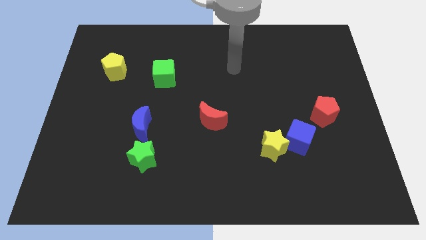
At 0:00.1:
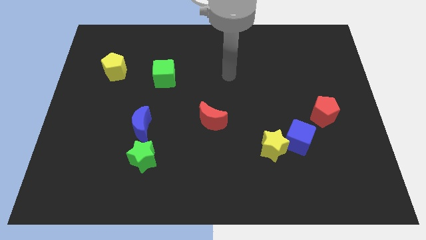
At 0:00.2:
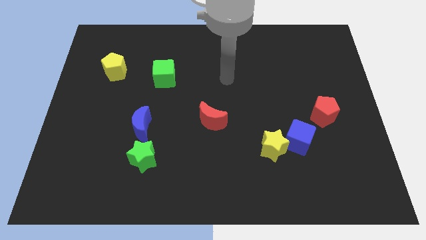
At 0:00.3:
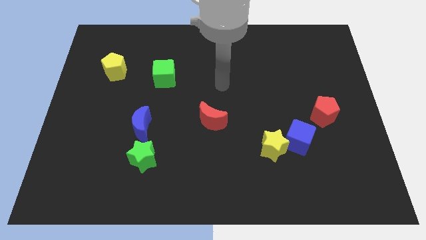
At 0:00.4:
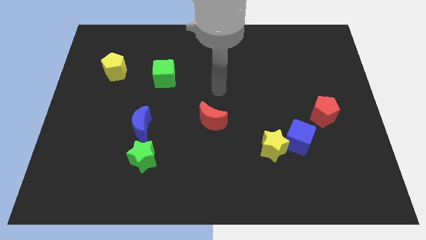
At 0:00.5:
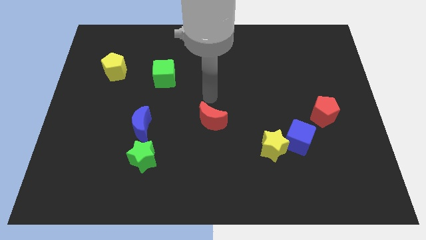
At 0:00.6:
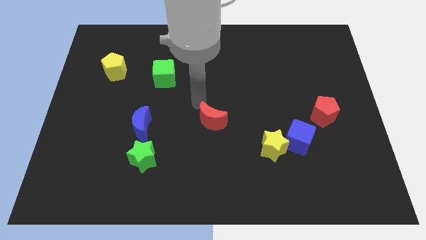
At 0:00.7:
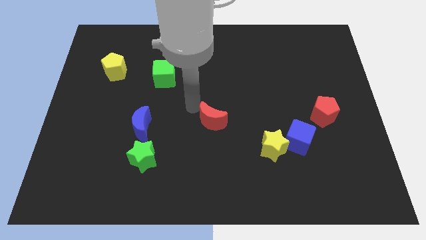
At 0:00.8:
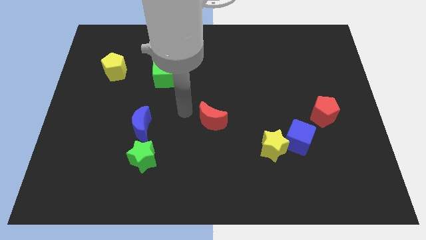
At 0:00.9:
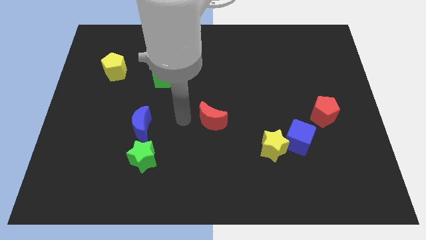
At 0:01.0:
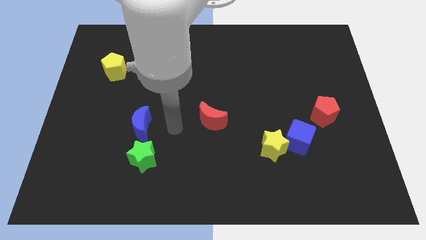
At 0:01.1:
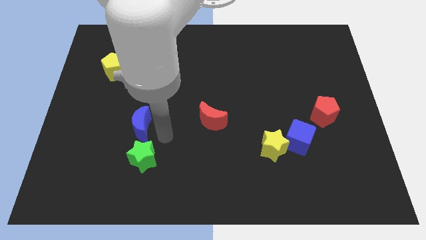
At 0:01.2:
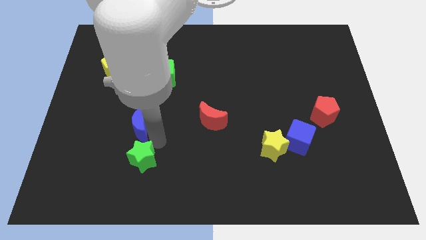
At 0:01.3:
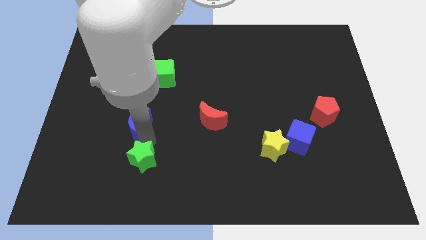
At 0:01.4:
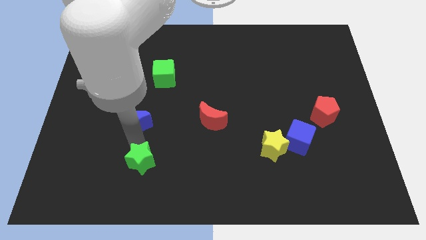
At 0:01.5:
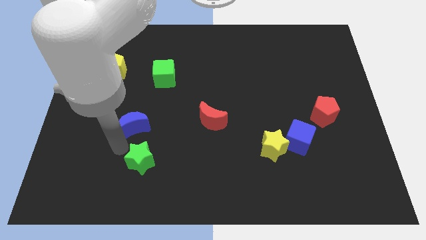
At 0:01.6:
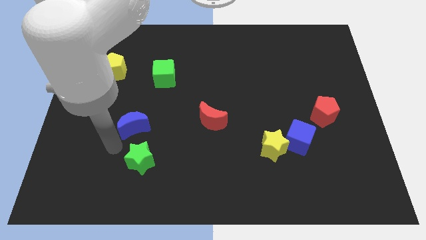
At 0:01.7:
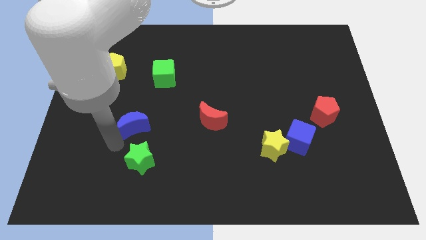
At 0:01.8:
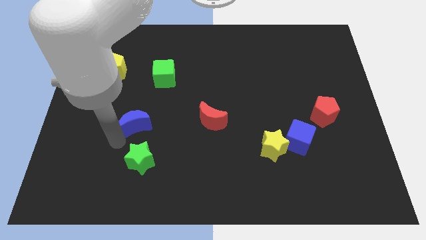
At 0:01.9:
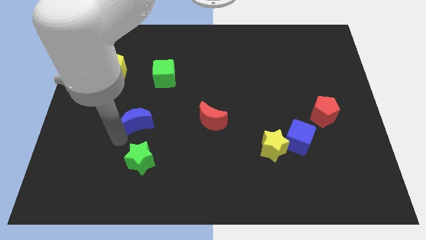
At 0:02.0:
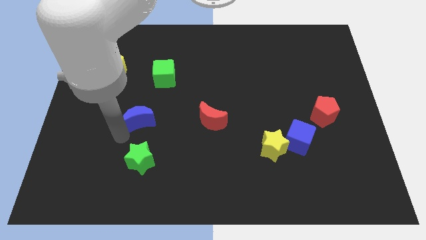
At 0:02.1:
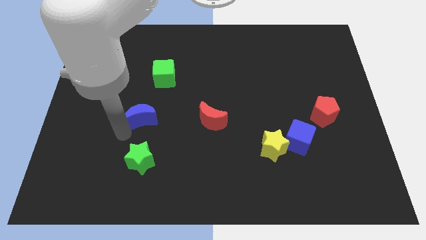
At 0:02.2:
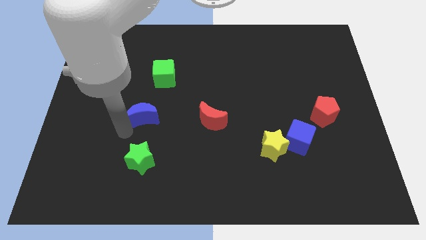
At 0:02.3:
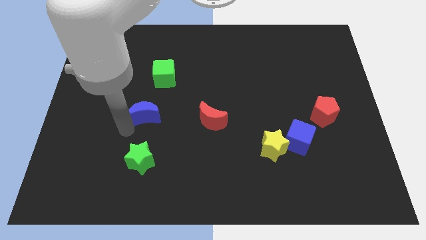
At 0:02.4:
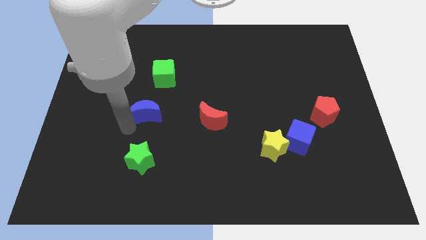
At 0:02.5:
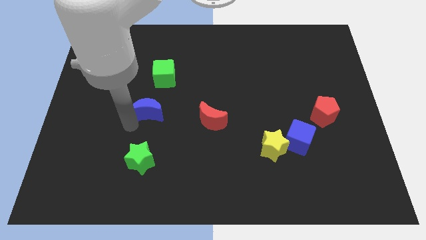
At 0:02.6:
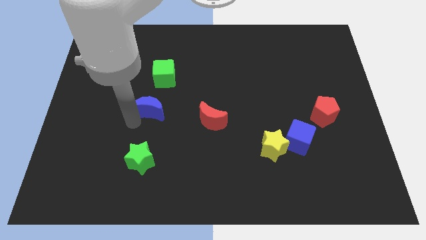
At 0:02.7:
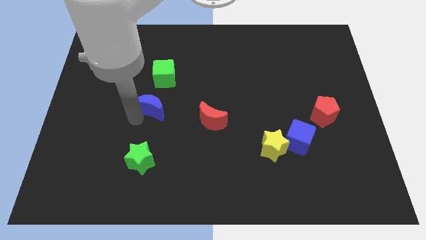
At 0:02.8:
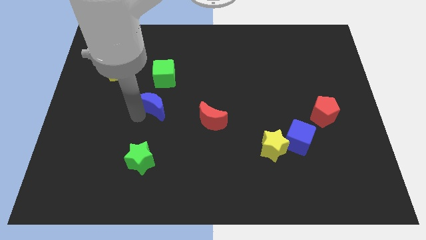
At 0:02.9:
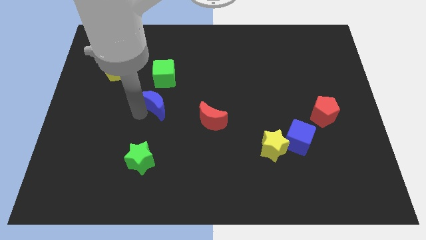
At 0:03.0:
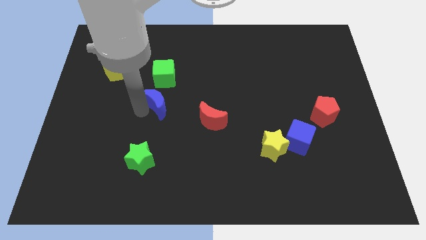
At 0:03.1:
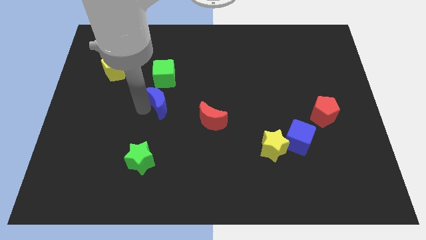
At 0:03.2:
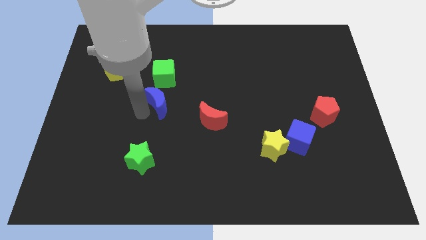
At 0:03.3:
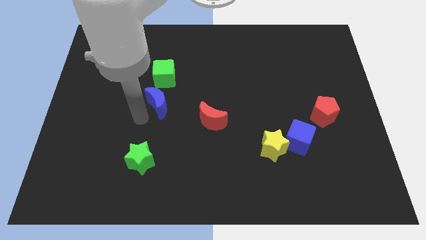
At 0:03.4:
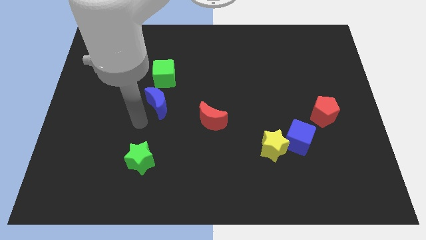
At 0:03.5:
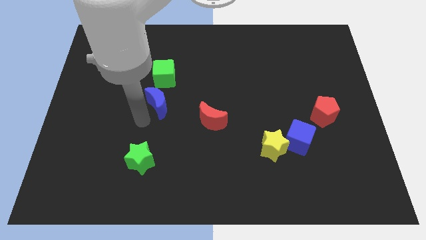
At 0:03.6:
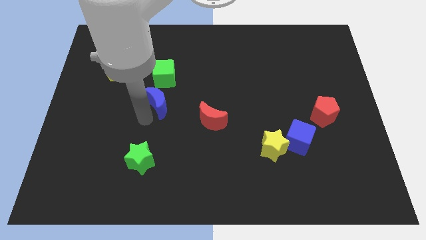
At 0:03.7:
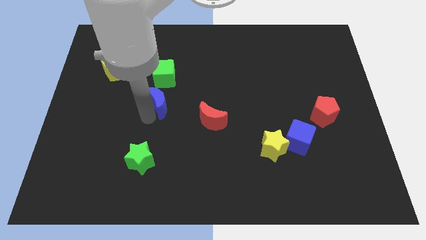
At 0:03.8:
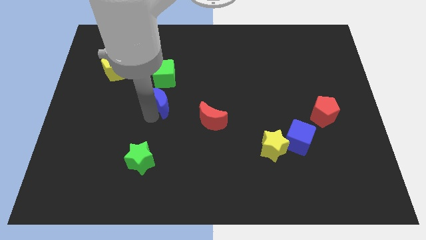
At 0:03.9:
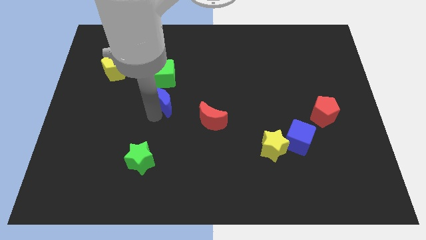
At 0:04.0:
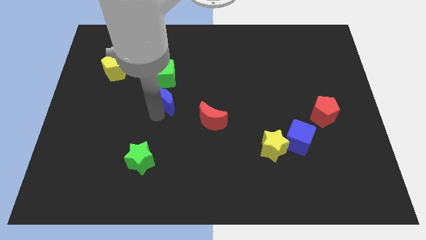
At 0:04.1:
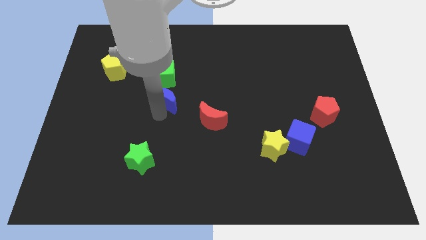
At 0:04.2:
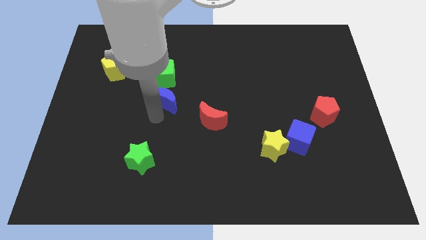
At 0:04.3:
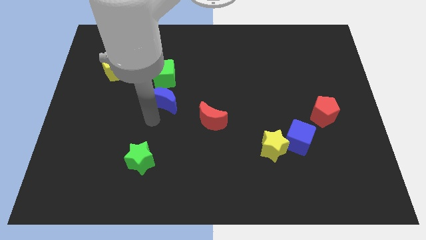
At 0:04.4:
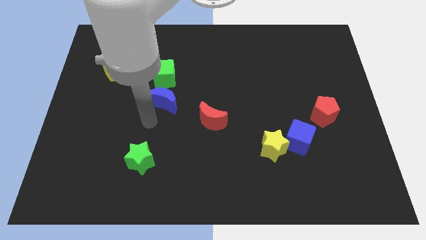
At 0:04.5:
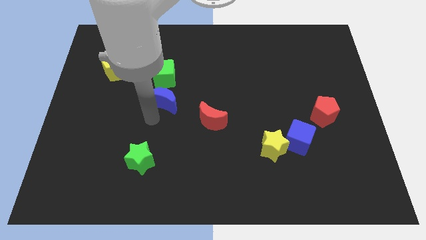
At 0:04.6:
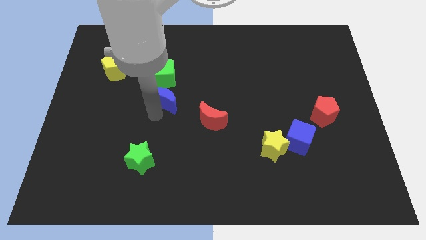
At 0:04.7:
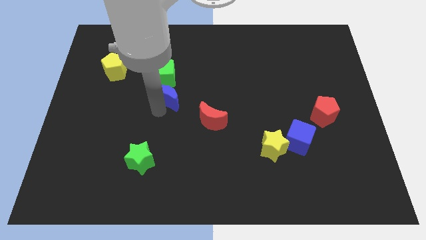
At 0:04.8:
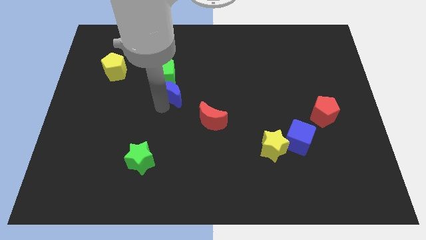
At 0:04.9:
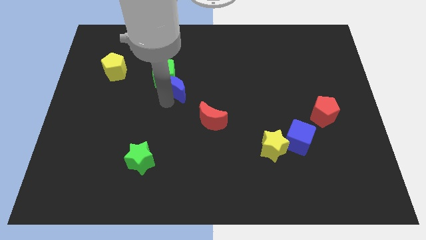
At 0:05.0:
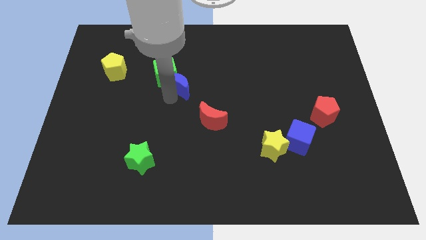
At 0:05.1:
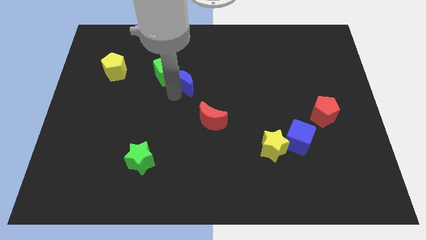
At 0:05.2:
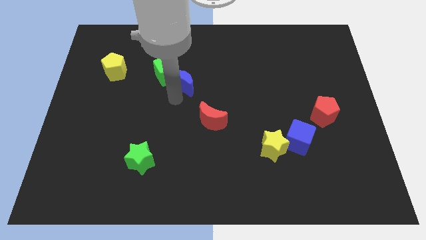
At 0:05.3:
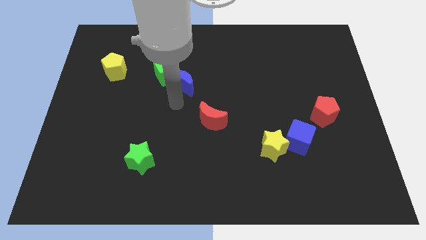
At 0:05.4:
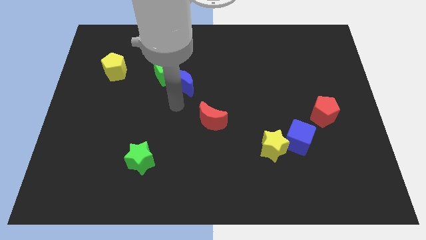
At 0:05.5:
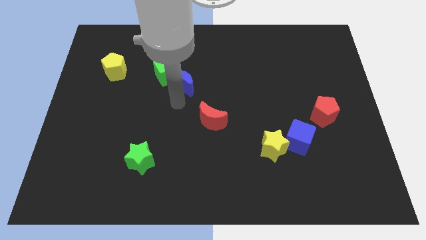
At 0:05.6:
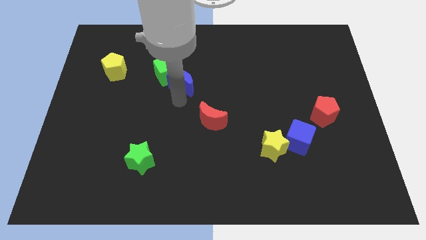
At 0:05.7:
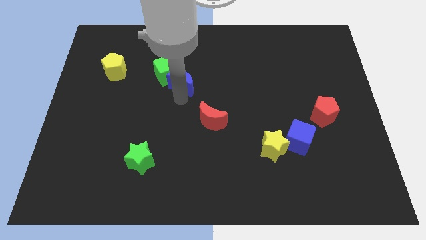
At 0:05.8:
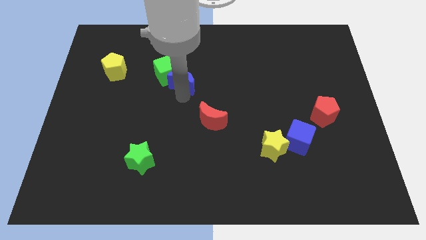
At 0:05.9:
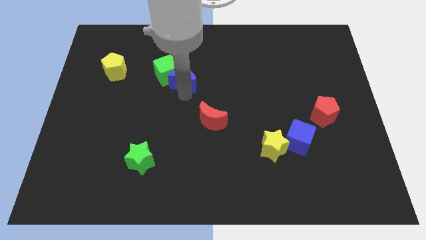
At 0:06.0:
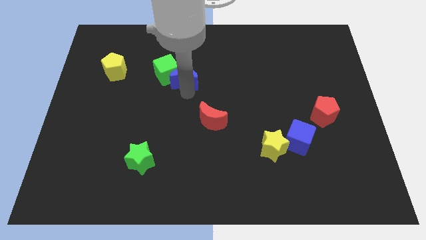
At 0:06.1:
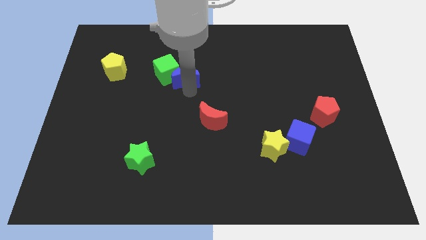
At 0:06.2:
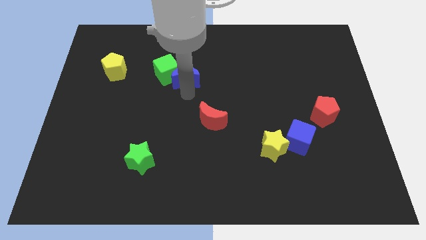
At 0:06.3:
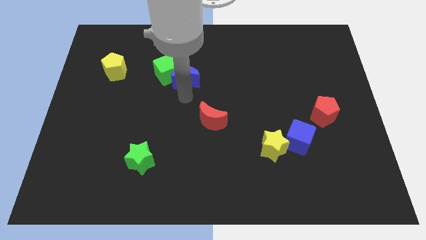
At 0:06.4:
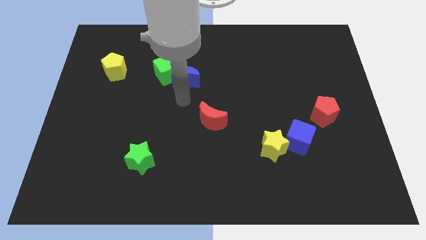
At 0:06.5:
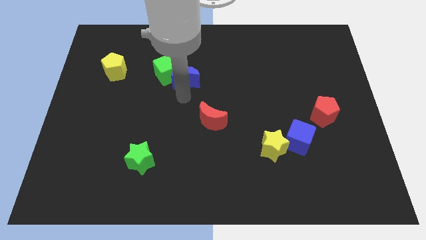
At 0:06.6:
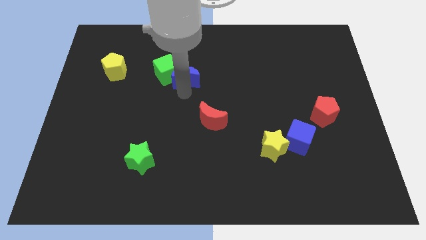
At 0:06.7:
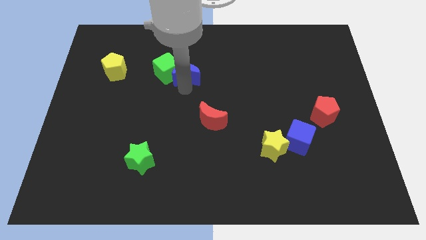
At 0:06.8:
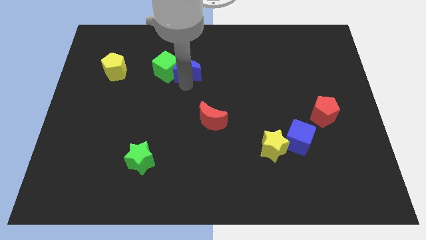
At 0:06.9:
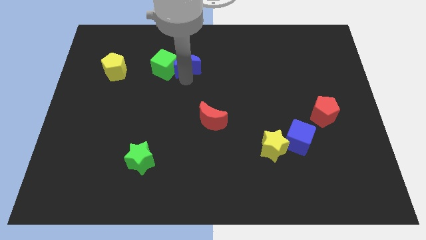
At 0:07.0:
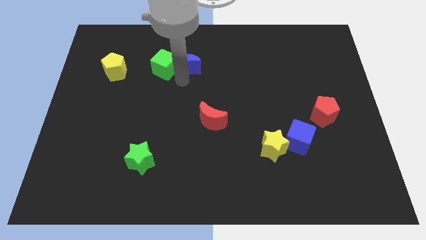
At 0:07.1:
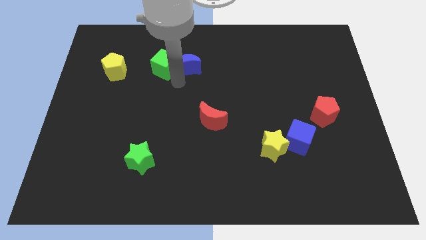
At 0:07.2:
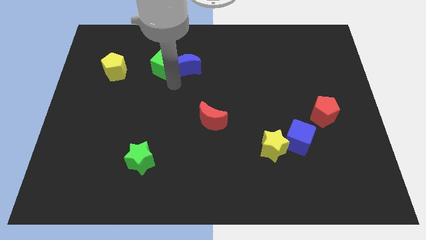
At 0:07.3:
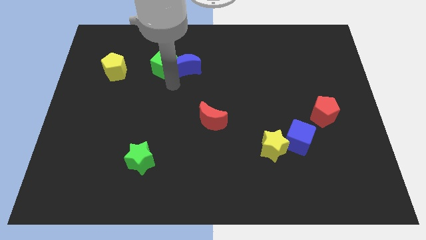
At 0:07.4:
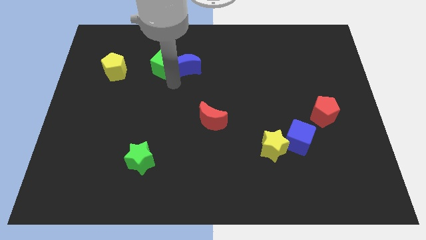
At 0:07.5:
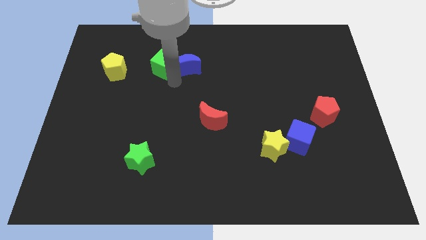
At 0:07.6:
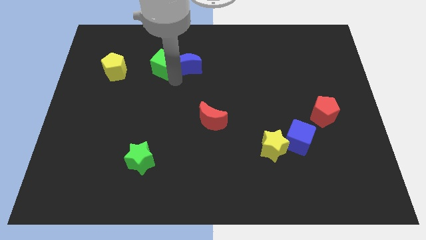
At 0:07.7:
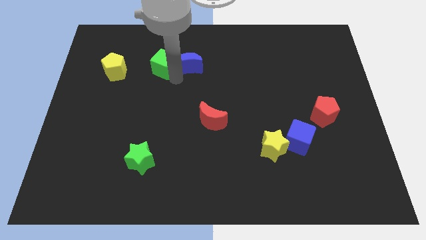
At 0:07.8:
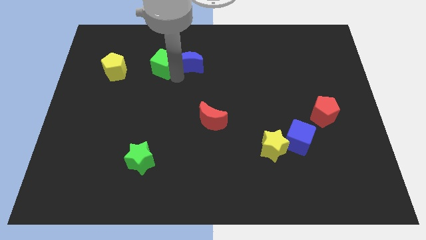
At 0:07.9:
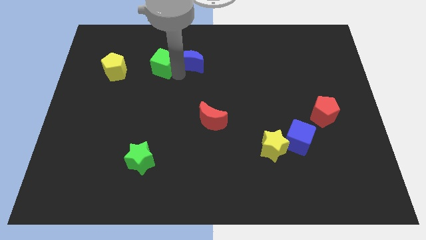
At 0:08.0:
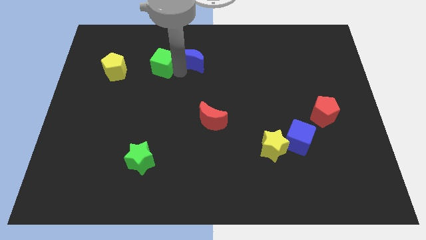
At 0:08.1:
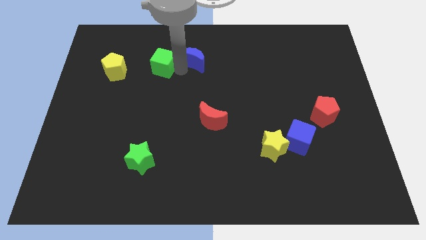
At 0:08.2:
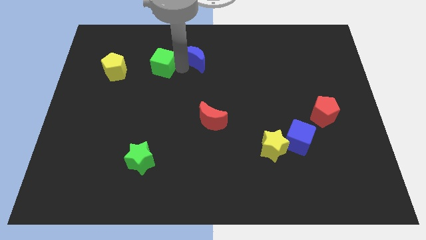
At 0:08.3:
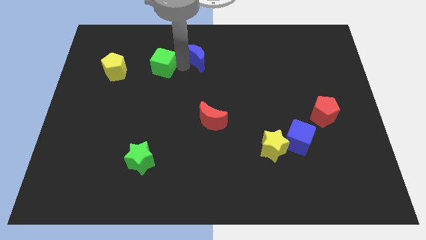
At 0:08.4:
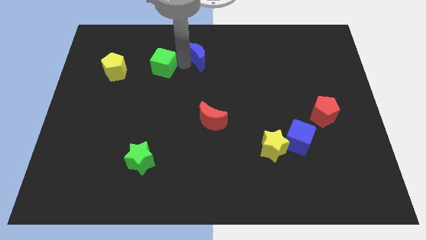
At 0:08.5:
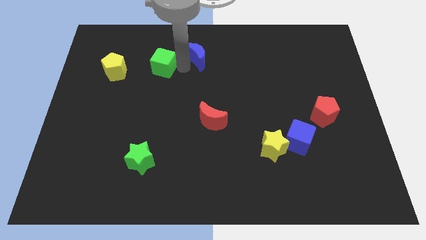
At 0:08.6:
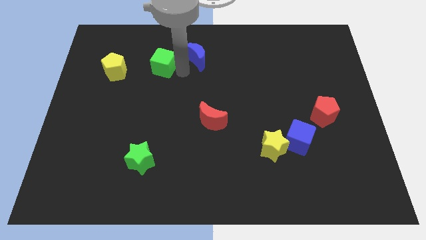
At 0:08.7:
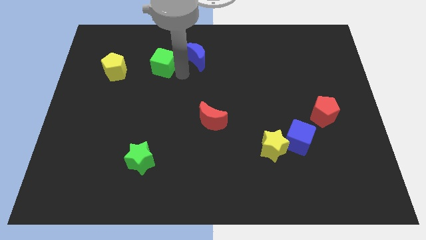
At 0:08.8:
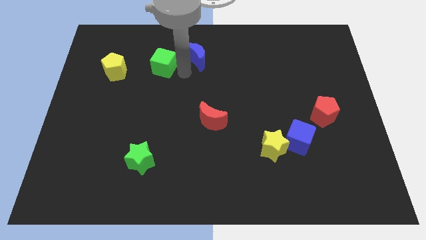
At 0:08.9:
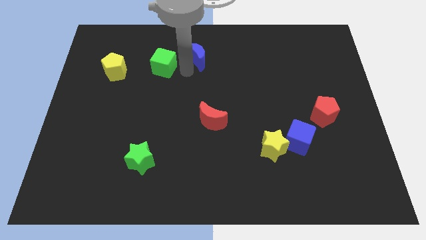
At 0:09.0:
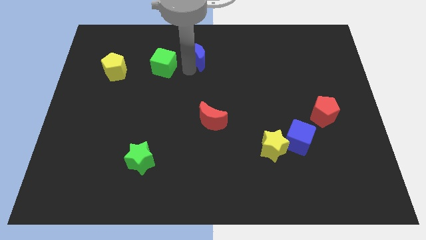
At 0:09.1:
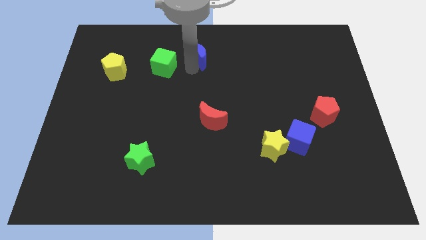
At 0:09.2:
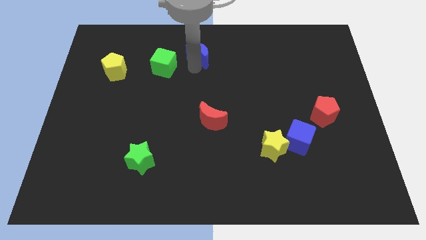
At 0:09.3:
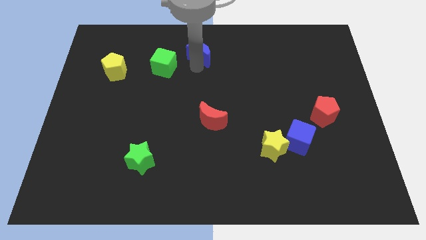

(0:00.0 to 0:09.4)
slide the blue moon to the towards your base
